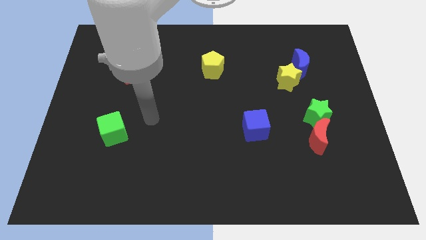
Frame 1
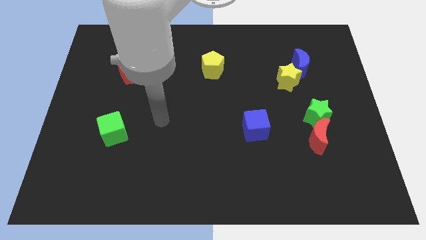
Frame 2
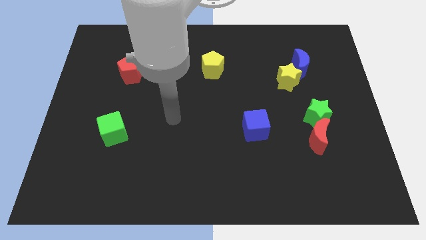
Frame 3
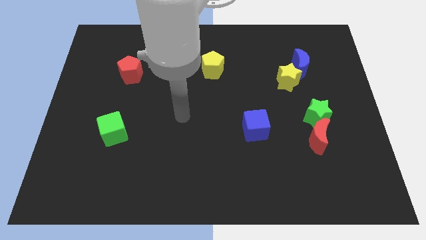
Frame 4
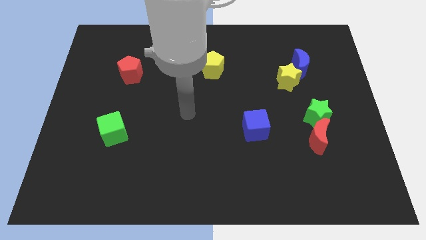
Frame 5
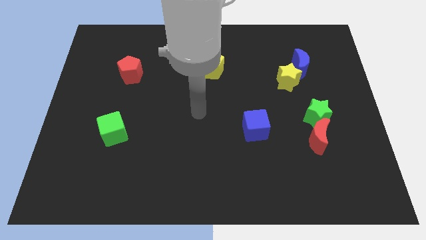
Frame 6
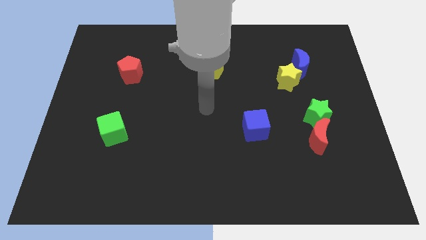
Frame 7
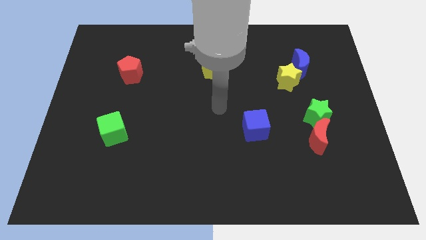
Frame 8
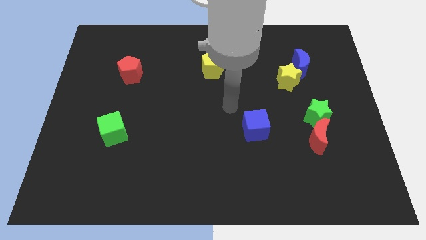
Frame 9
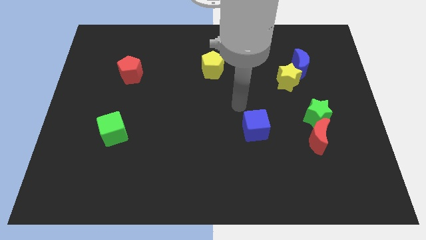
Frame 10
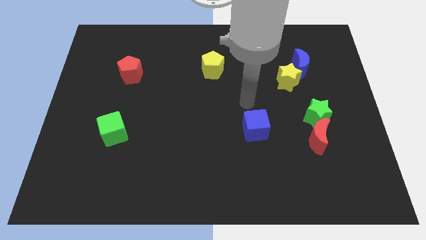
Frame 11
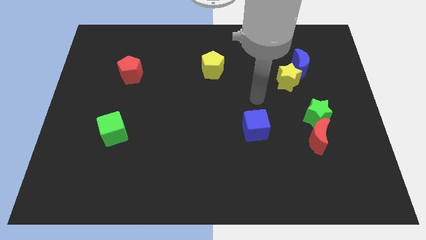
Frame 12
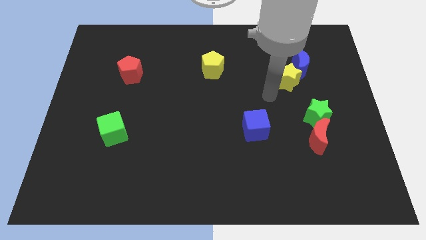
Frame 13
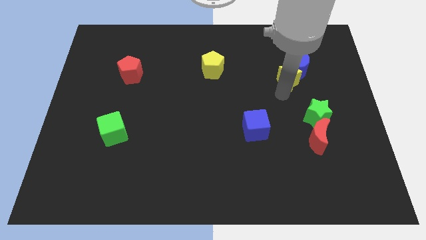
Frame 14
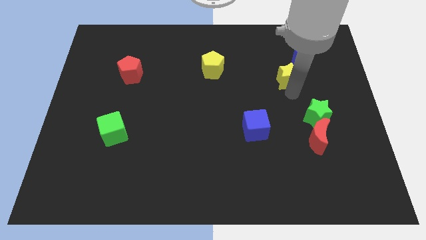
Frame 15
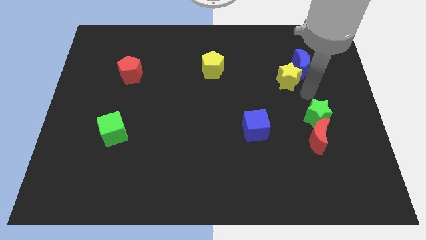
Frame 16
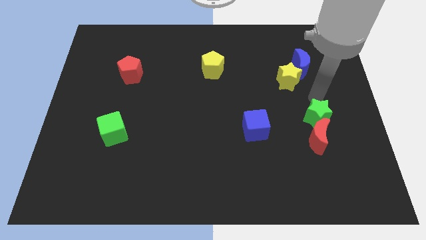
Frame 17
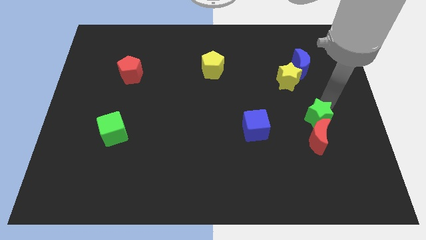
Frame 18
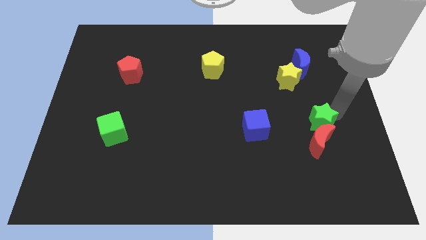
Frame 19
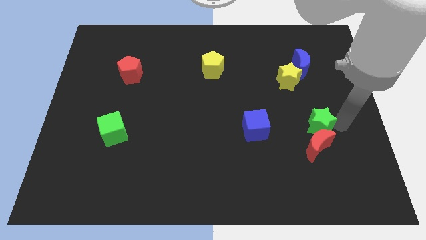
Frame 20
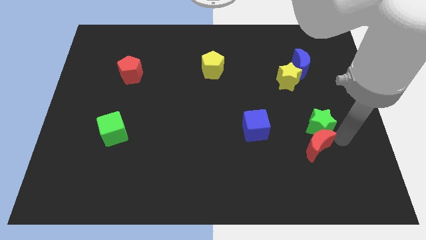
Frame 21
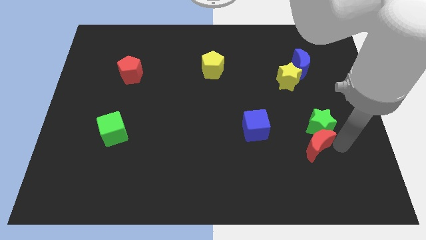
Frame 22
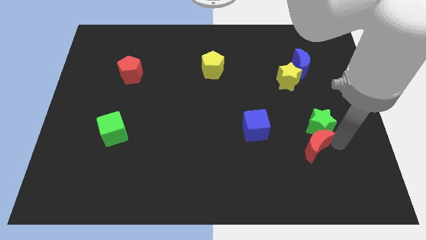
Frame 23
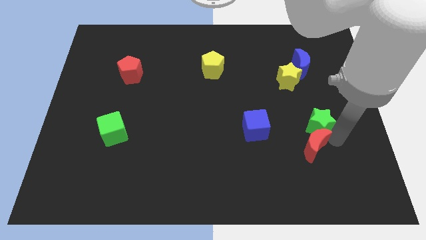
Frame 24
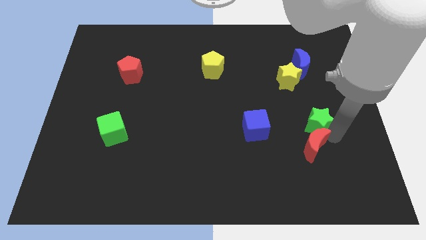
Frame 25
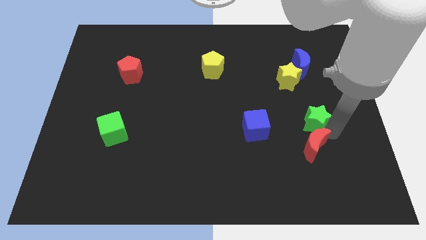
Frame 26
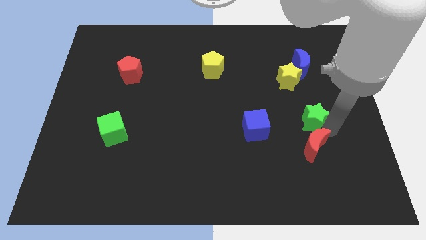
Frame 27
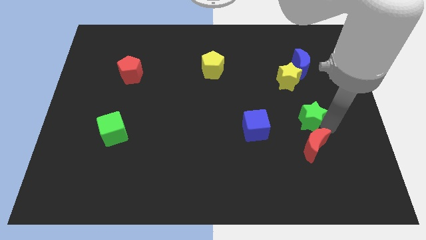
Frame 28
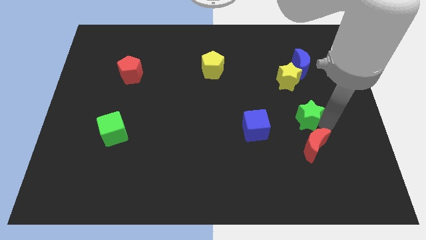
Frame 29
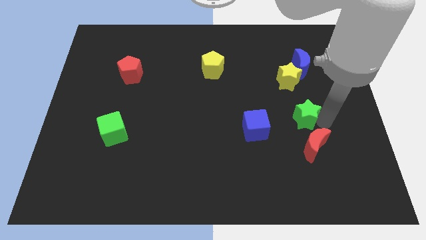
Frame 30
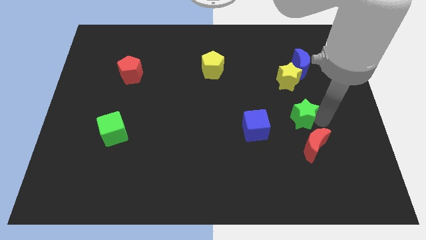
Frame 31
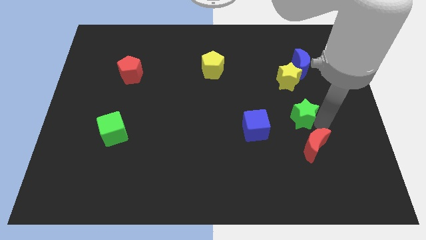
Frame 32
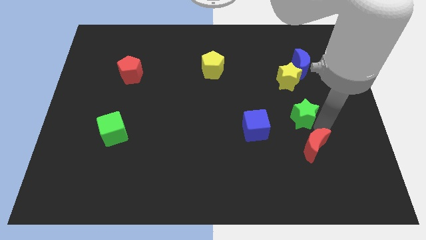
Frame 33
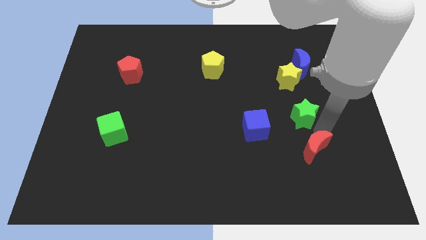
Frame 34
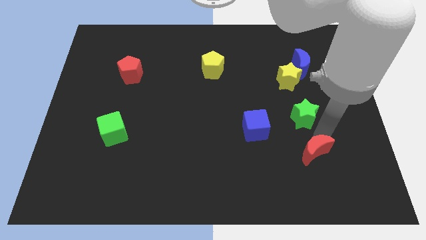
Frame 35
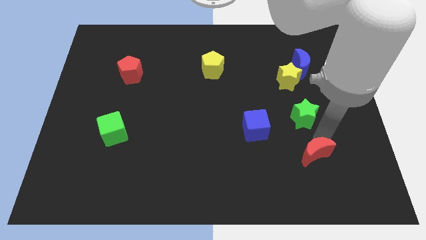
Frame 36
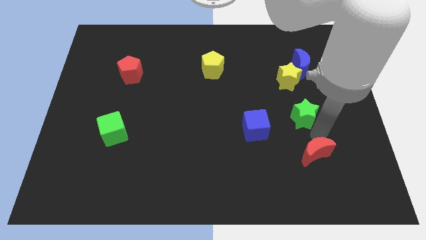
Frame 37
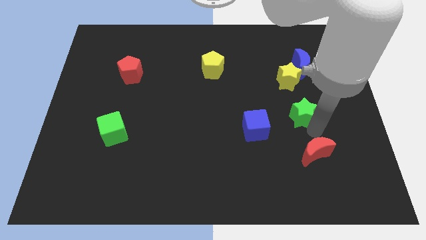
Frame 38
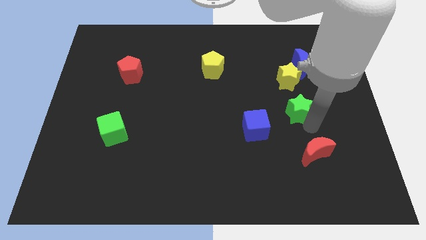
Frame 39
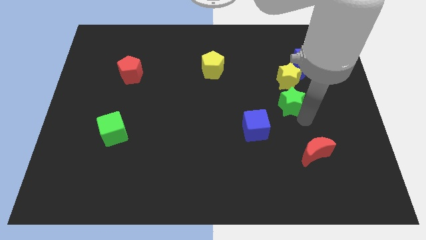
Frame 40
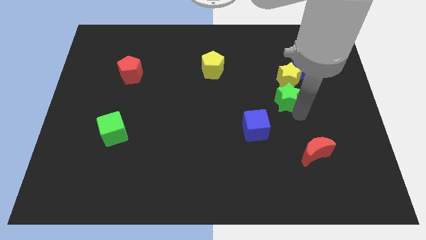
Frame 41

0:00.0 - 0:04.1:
slide the green star diagonally up and to the left somewhat

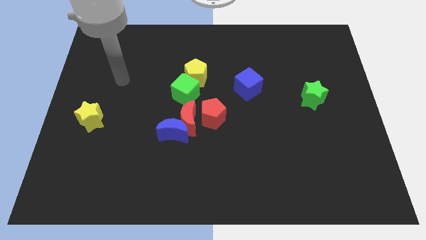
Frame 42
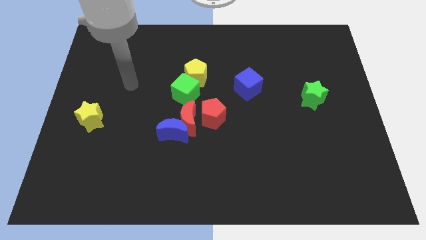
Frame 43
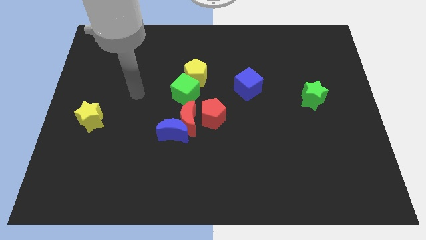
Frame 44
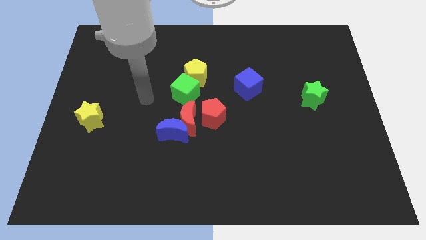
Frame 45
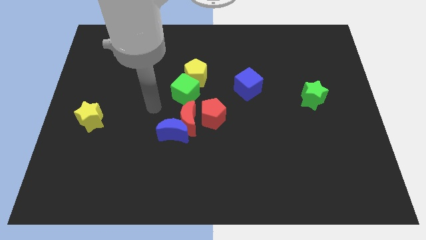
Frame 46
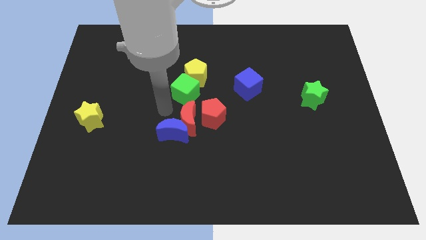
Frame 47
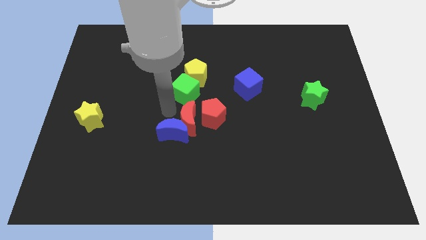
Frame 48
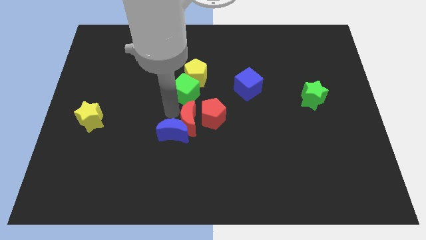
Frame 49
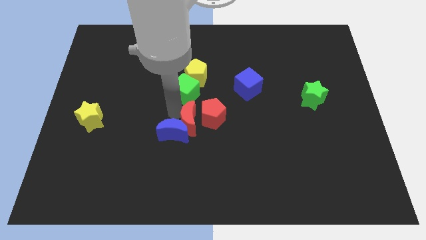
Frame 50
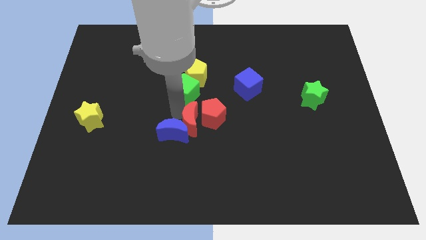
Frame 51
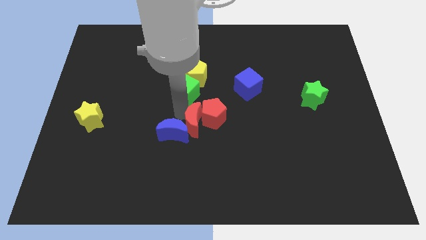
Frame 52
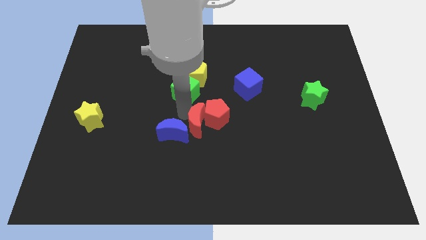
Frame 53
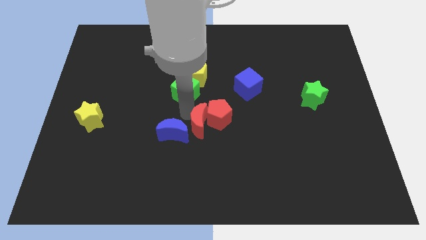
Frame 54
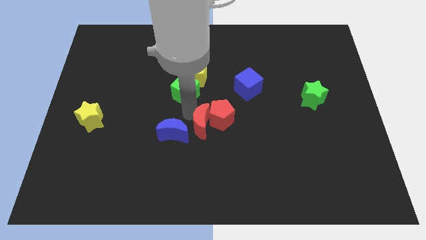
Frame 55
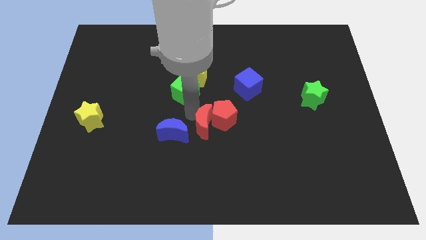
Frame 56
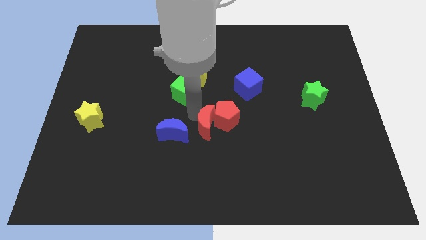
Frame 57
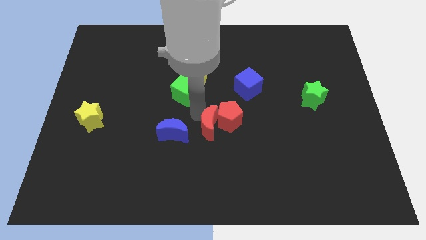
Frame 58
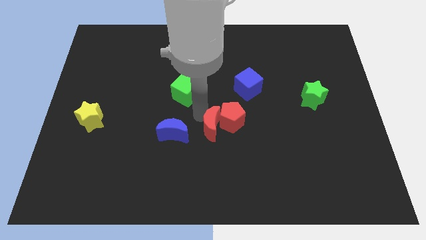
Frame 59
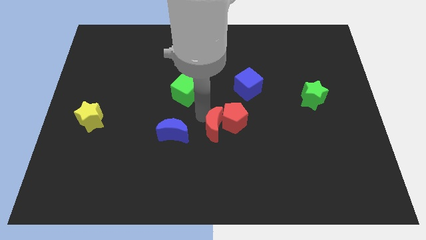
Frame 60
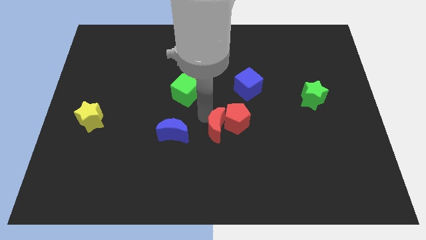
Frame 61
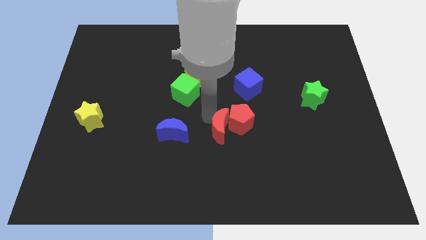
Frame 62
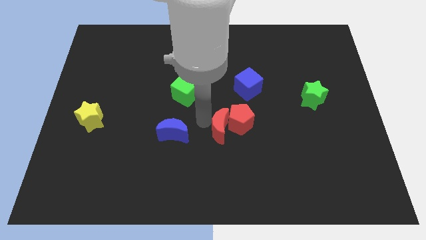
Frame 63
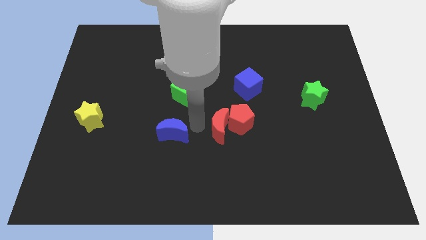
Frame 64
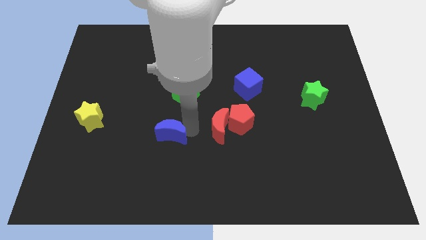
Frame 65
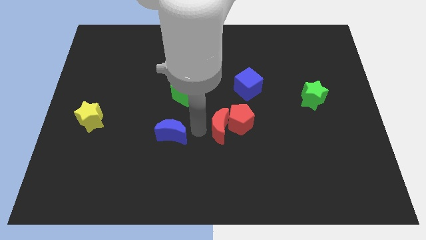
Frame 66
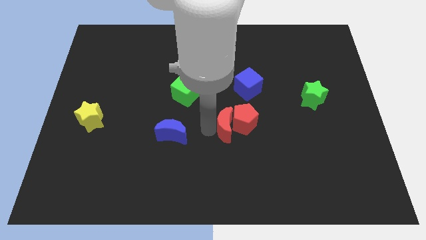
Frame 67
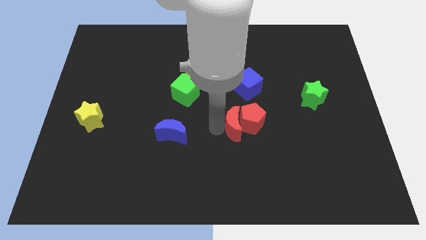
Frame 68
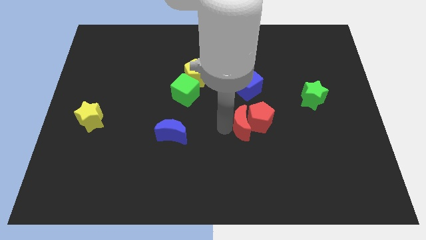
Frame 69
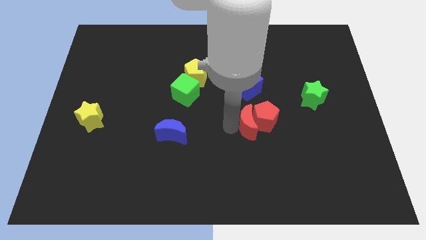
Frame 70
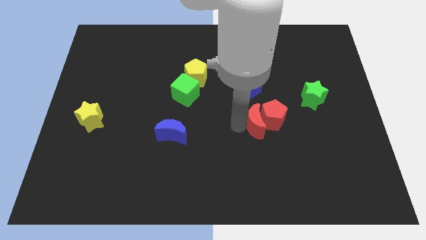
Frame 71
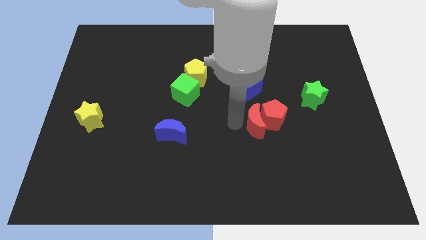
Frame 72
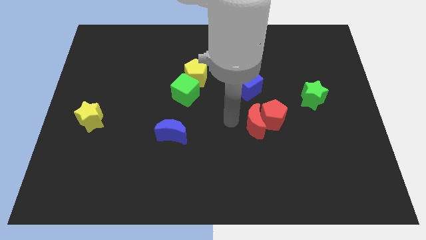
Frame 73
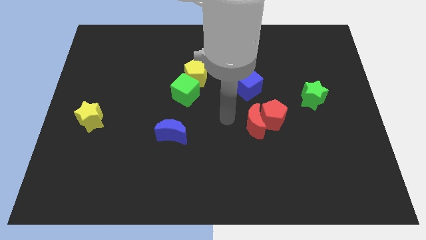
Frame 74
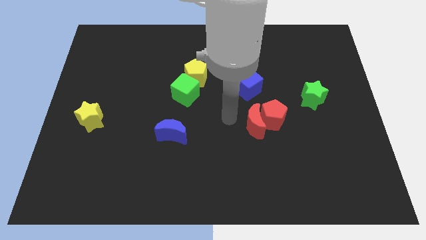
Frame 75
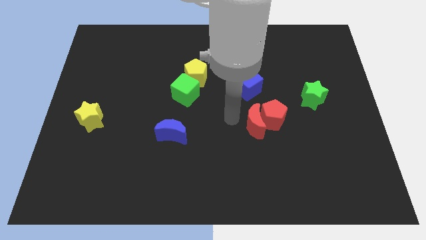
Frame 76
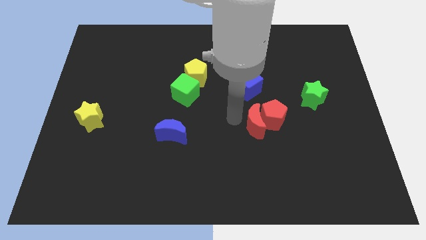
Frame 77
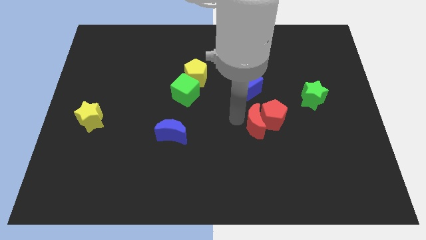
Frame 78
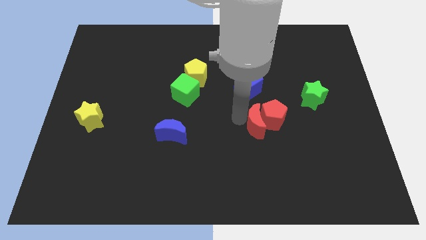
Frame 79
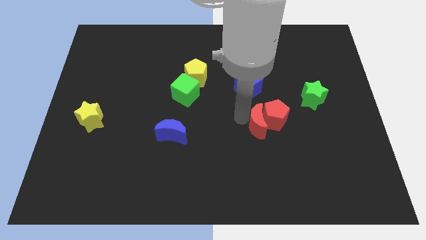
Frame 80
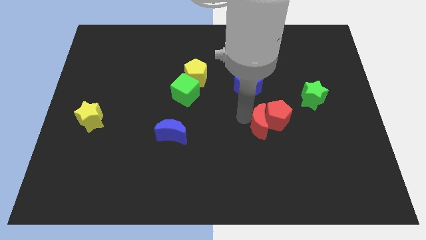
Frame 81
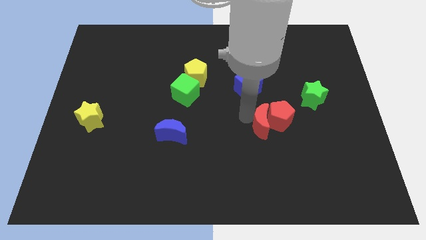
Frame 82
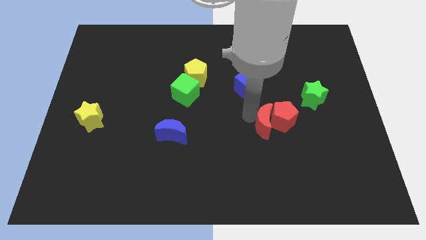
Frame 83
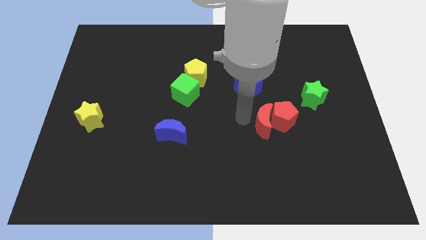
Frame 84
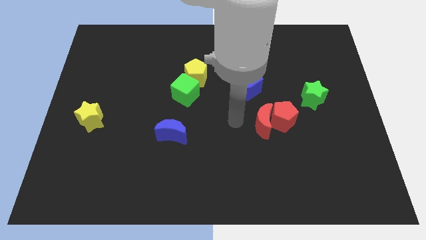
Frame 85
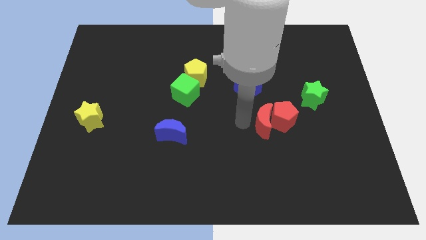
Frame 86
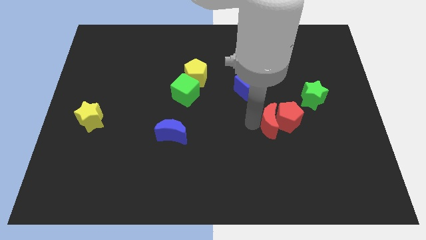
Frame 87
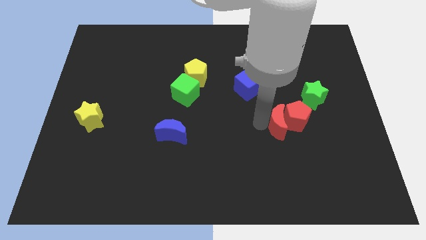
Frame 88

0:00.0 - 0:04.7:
slide the red moon to the right
